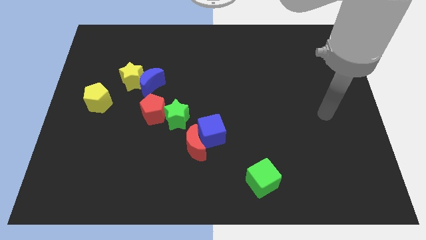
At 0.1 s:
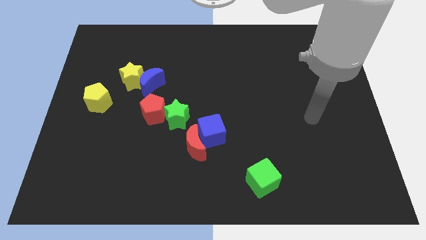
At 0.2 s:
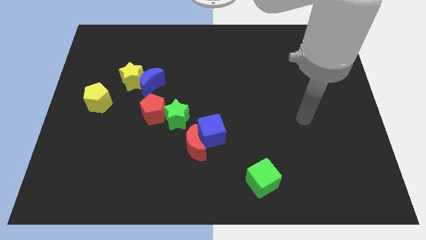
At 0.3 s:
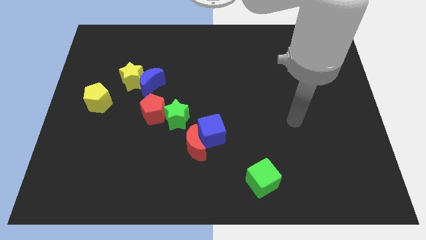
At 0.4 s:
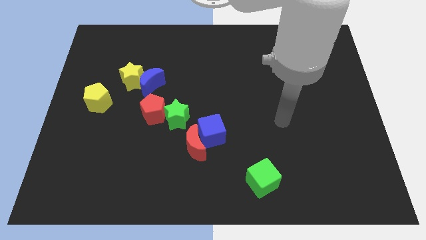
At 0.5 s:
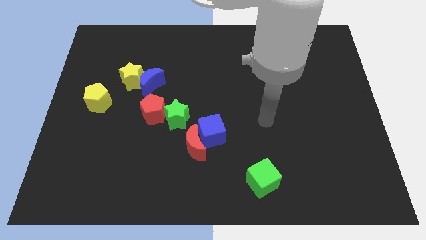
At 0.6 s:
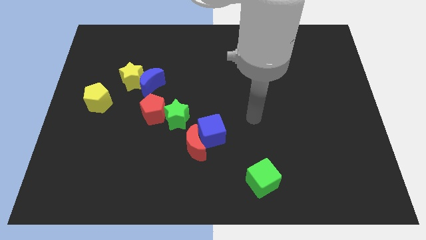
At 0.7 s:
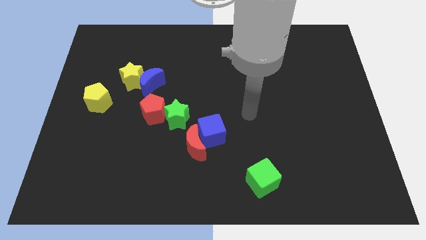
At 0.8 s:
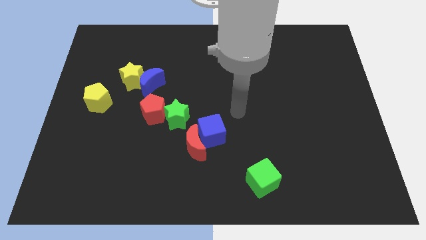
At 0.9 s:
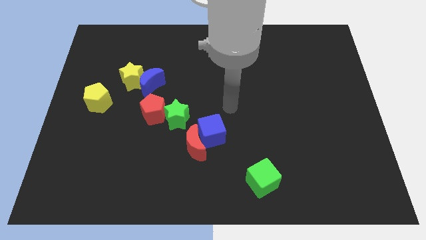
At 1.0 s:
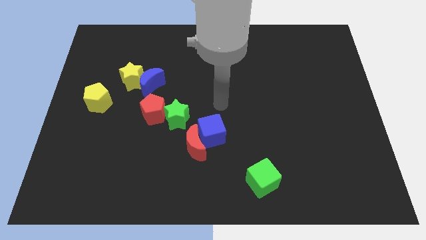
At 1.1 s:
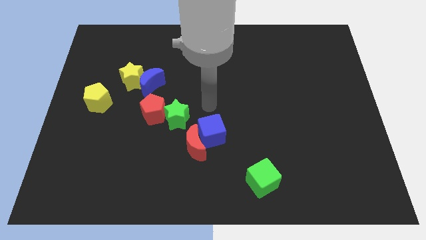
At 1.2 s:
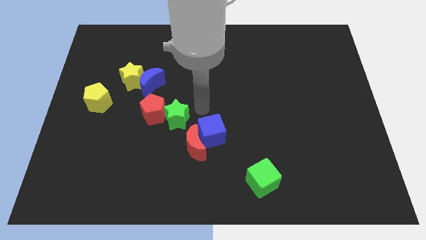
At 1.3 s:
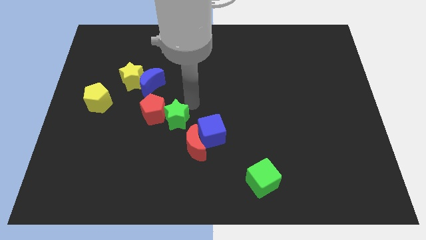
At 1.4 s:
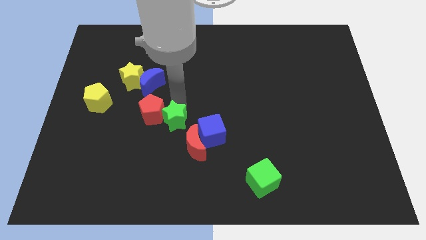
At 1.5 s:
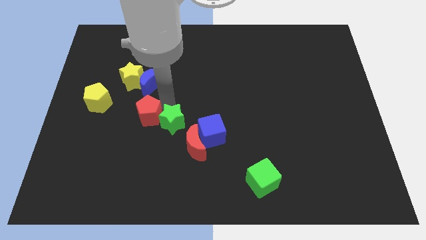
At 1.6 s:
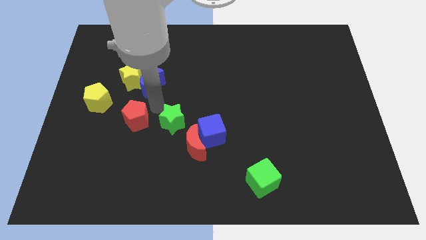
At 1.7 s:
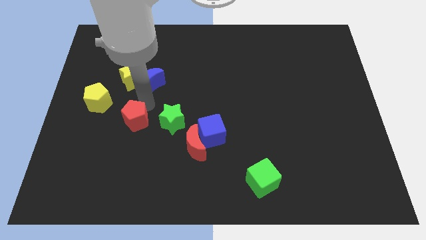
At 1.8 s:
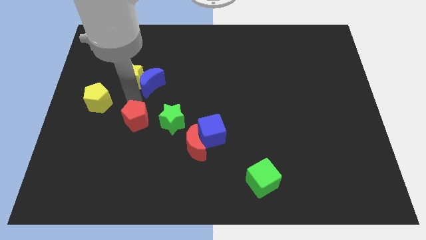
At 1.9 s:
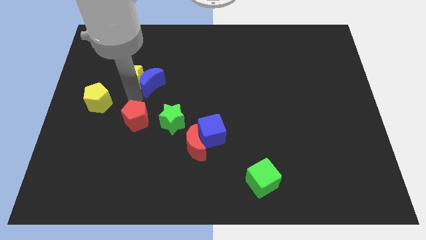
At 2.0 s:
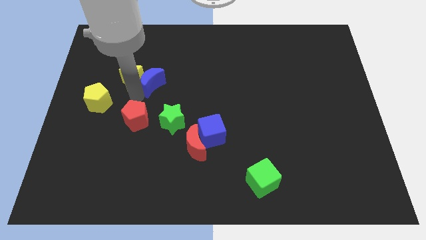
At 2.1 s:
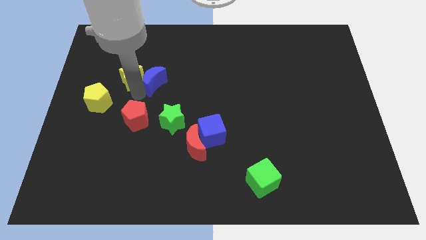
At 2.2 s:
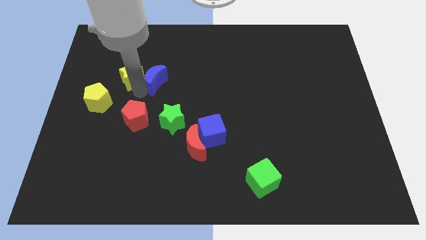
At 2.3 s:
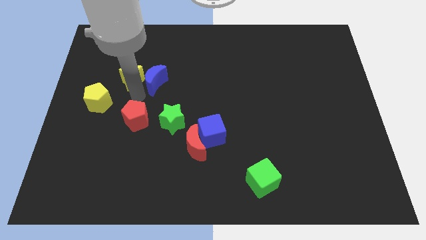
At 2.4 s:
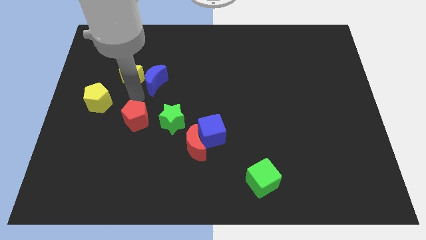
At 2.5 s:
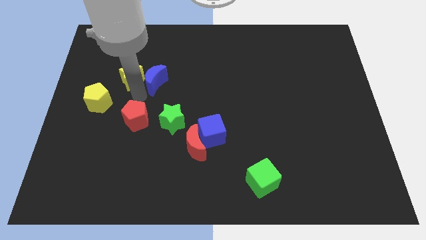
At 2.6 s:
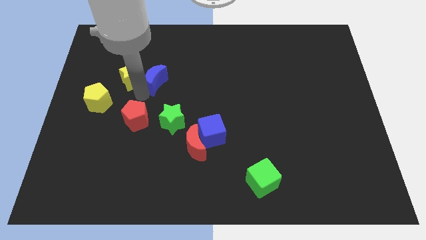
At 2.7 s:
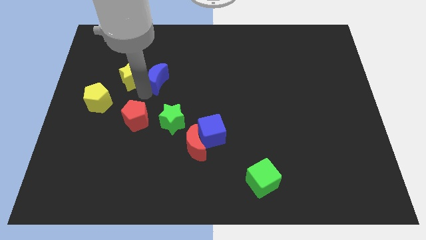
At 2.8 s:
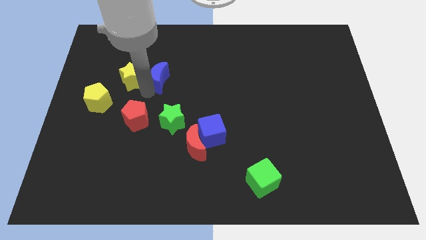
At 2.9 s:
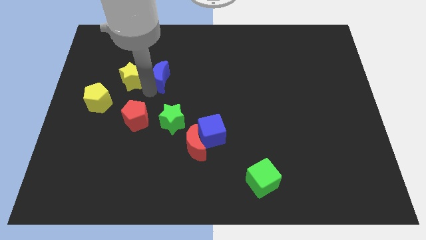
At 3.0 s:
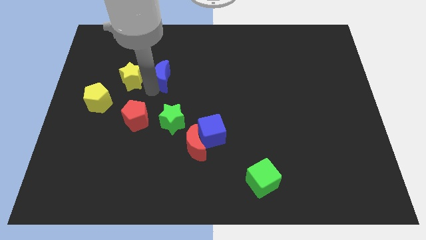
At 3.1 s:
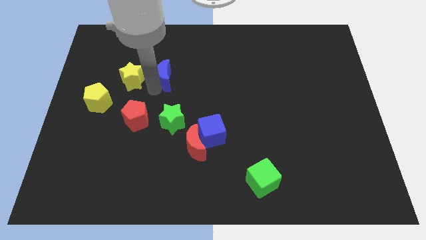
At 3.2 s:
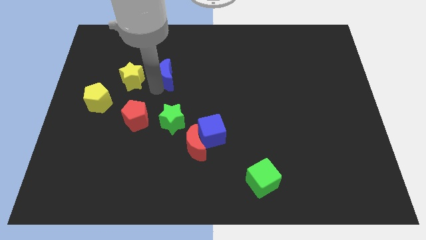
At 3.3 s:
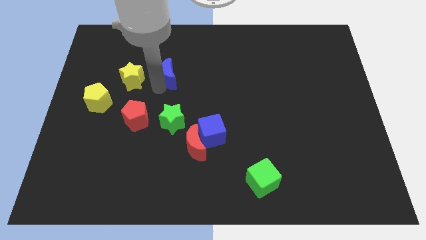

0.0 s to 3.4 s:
pull the blue moon apart from the yellow star and red pentagon

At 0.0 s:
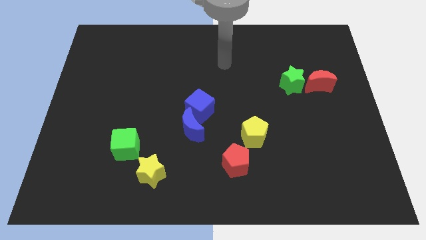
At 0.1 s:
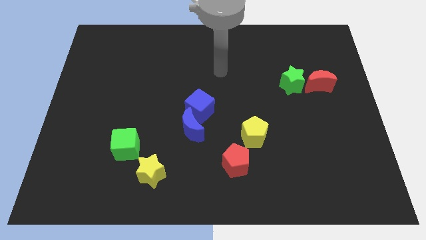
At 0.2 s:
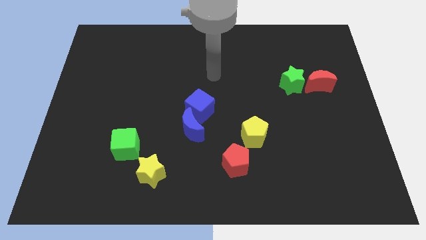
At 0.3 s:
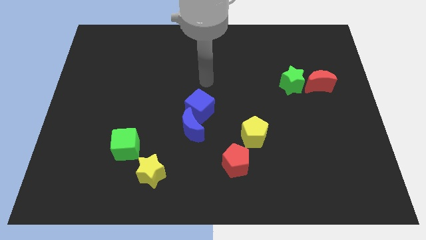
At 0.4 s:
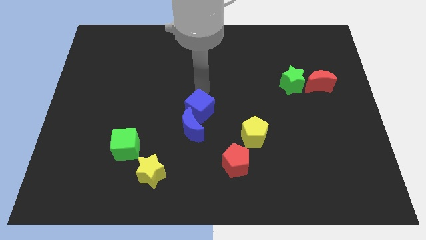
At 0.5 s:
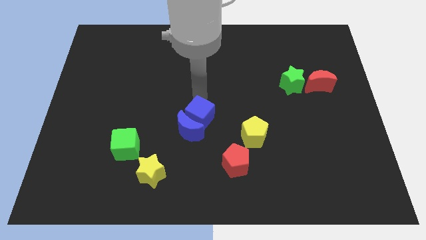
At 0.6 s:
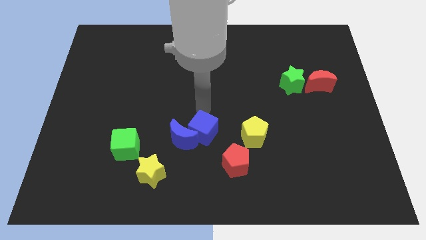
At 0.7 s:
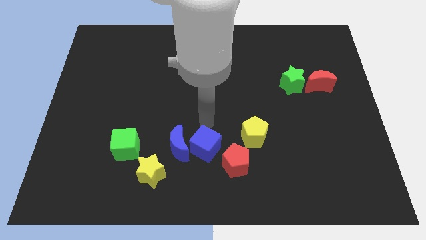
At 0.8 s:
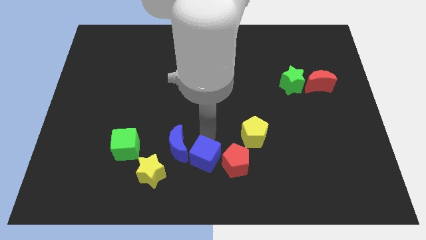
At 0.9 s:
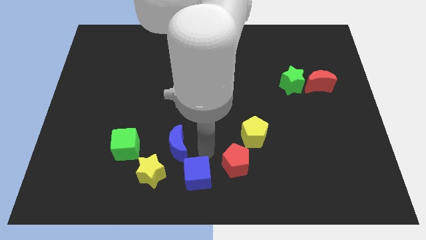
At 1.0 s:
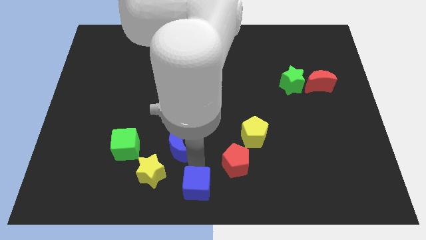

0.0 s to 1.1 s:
pull the blue moon apart from the blue cube

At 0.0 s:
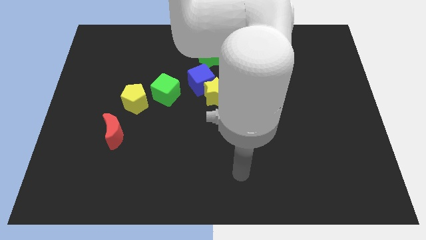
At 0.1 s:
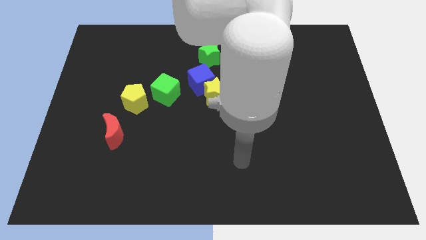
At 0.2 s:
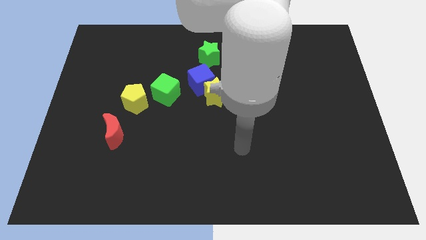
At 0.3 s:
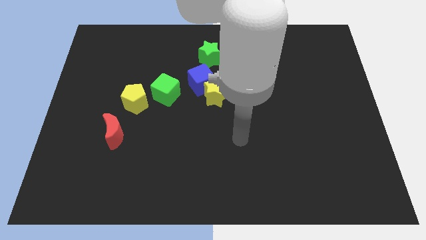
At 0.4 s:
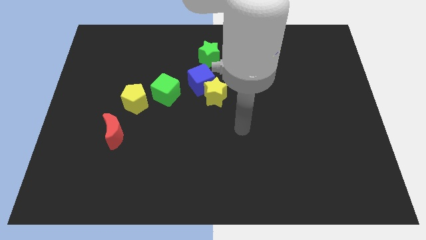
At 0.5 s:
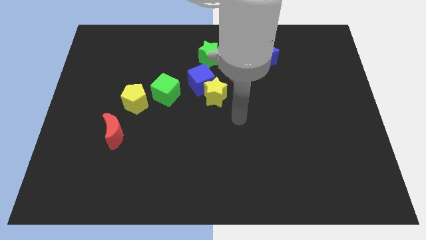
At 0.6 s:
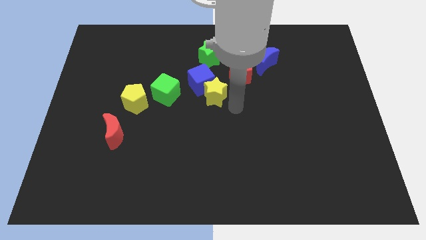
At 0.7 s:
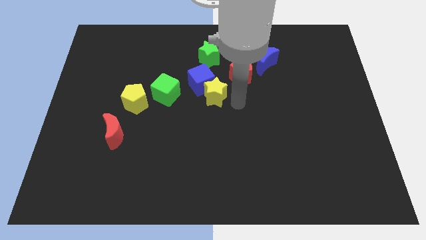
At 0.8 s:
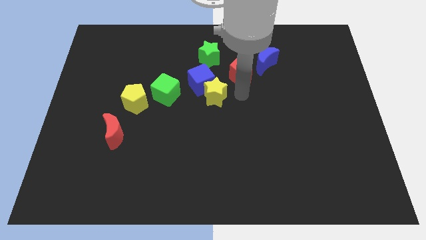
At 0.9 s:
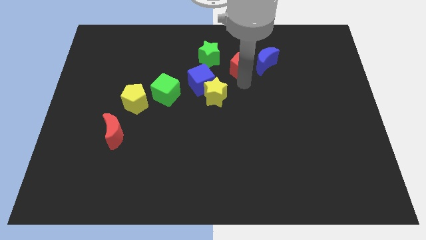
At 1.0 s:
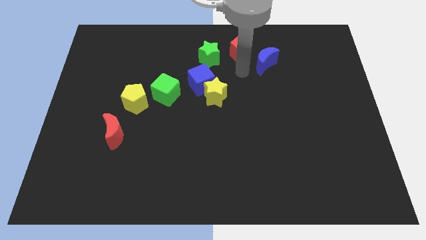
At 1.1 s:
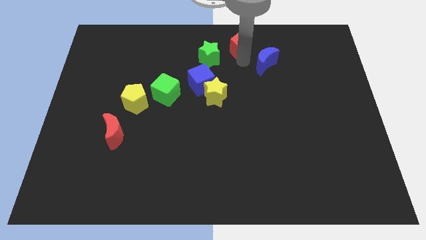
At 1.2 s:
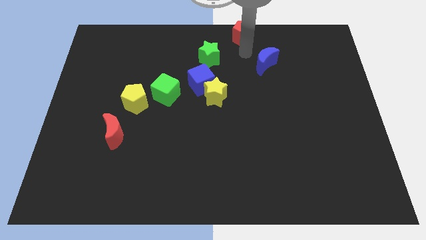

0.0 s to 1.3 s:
separate the blue moon from the red pentagon

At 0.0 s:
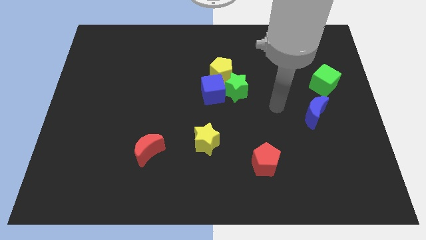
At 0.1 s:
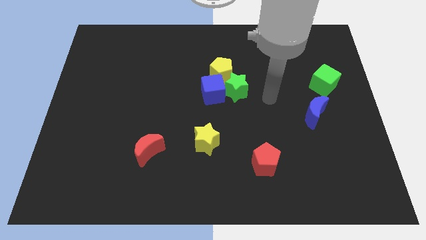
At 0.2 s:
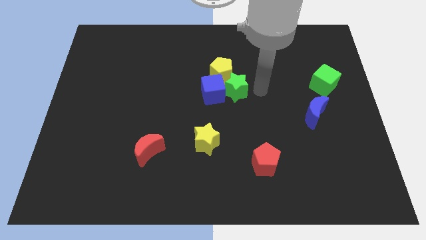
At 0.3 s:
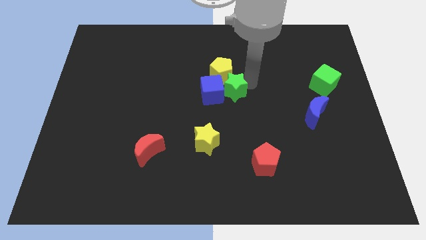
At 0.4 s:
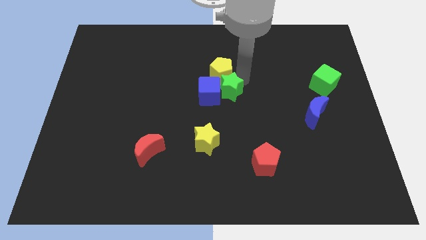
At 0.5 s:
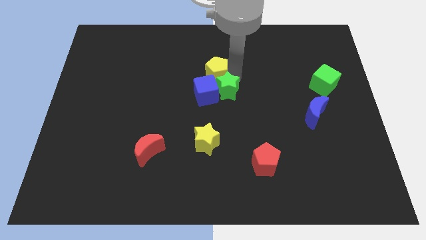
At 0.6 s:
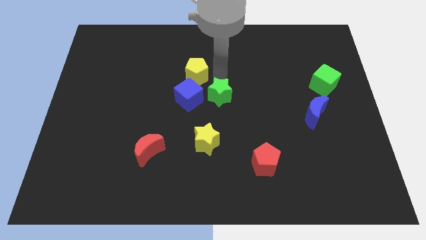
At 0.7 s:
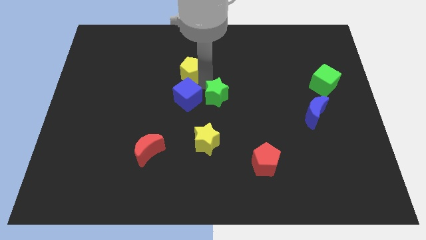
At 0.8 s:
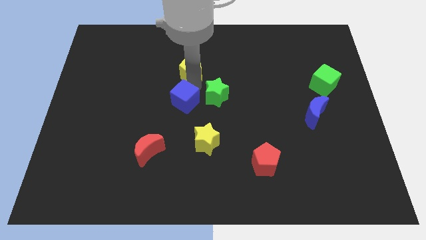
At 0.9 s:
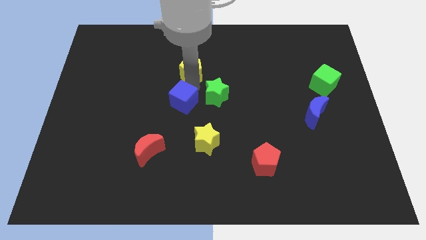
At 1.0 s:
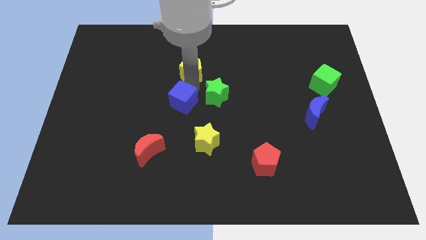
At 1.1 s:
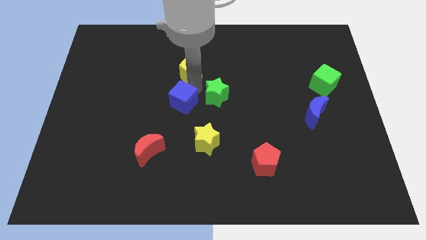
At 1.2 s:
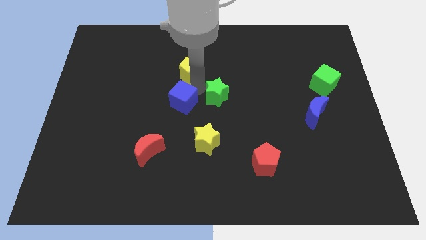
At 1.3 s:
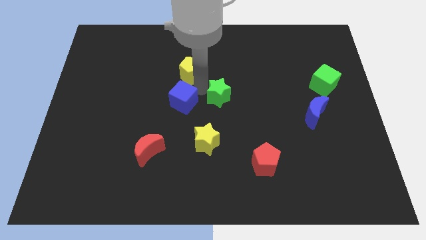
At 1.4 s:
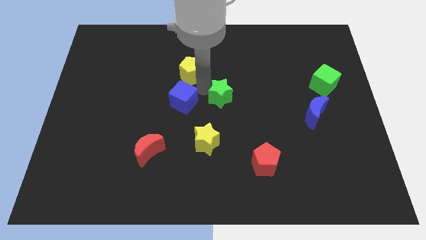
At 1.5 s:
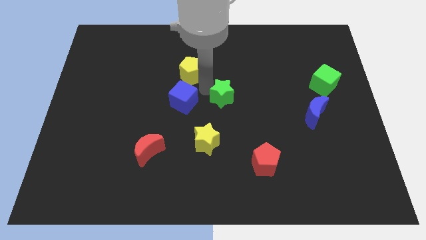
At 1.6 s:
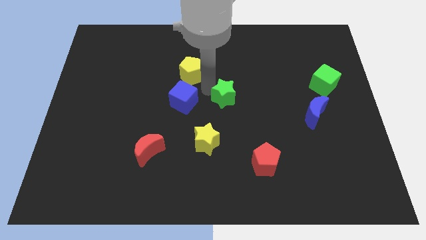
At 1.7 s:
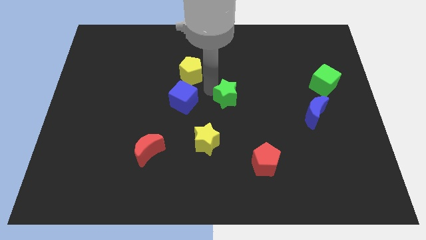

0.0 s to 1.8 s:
pull the green star apart from the blue cube and yellow pentagon

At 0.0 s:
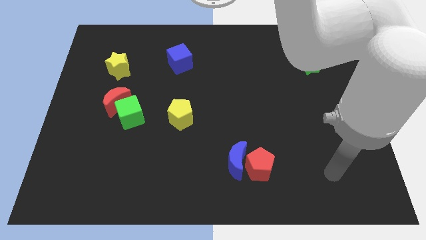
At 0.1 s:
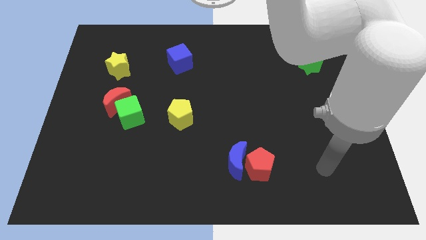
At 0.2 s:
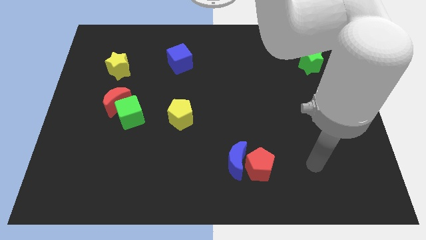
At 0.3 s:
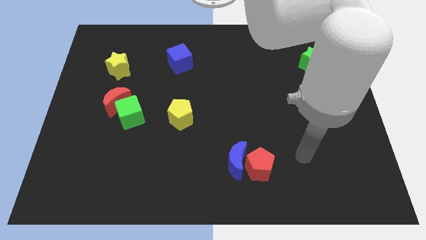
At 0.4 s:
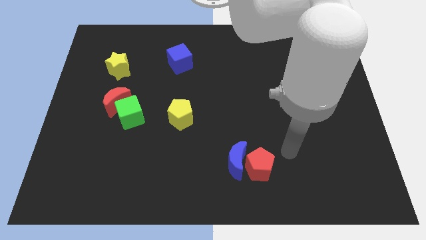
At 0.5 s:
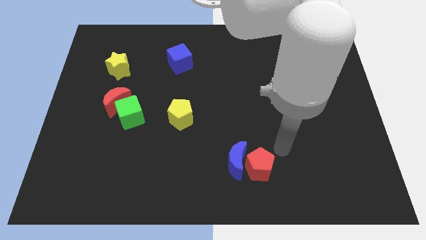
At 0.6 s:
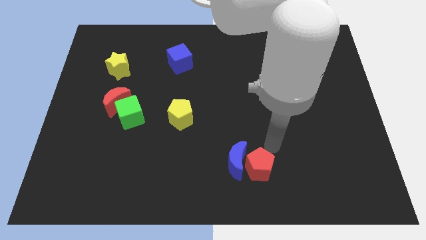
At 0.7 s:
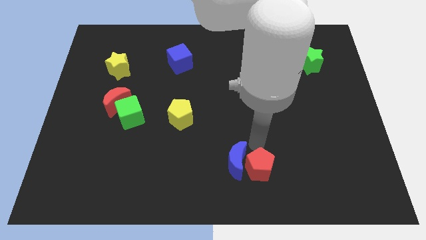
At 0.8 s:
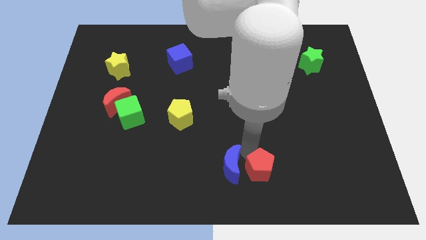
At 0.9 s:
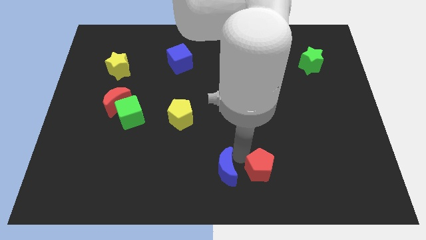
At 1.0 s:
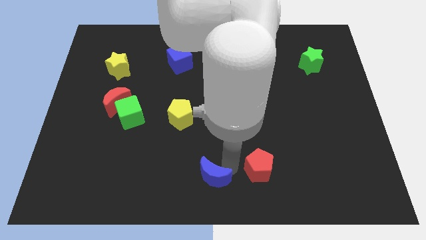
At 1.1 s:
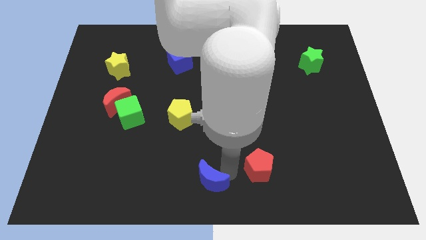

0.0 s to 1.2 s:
pull the red pentagon apart from the blue moon

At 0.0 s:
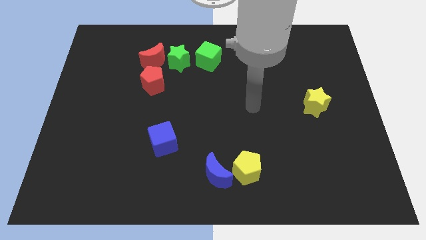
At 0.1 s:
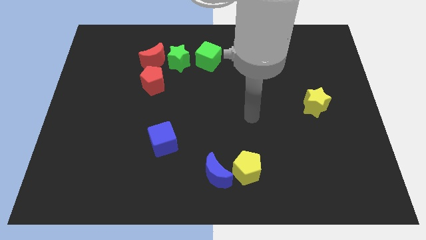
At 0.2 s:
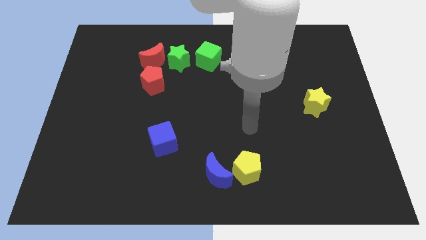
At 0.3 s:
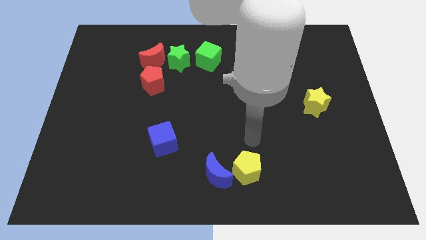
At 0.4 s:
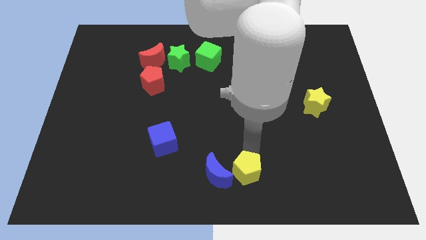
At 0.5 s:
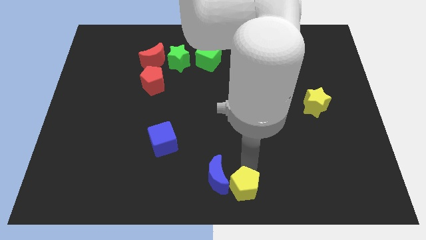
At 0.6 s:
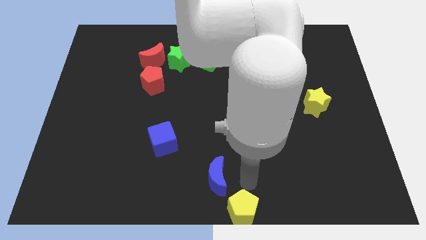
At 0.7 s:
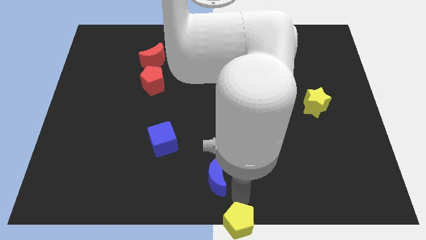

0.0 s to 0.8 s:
pull the blue moon apart from the yellow pentagon
